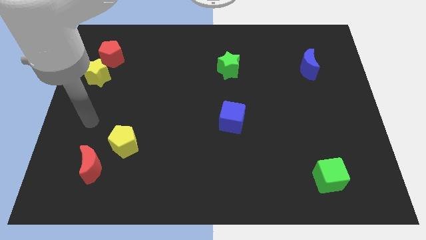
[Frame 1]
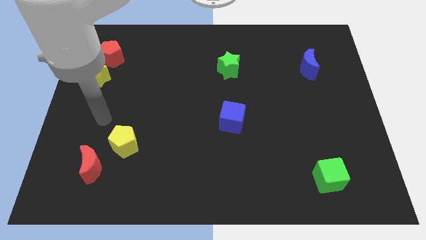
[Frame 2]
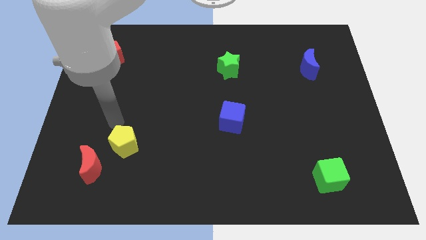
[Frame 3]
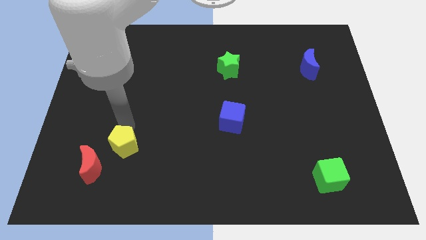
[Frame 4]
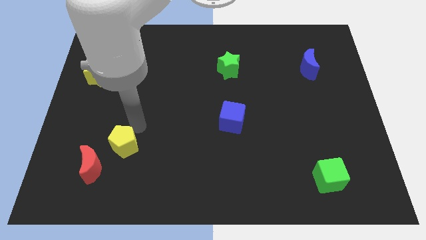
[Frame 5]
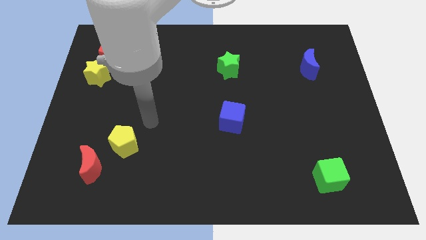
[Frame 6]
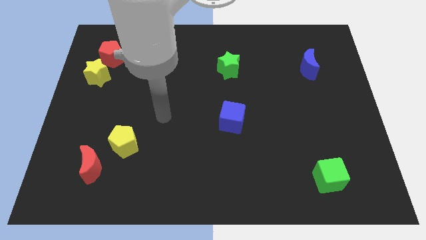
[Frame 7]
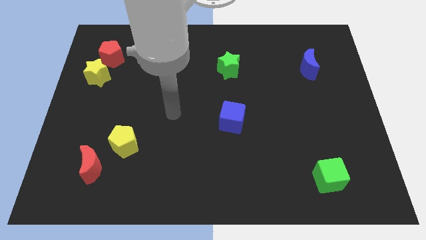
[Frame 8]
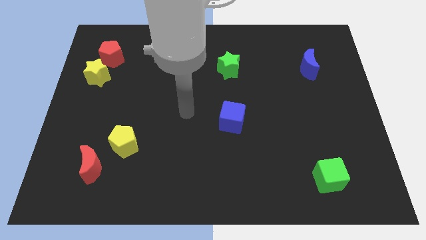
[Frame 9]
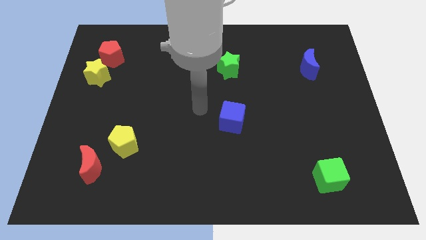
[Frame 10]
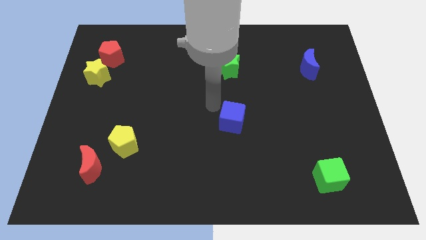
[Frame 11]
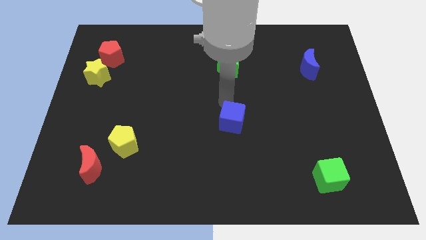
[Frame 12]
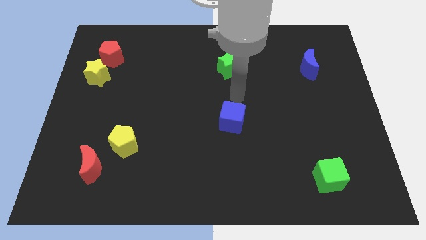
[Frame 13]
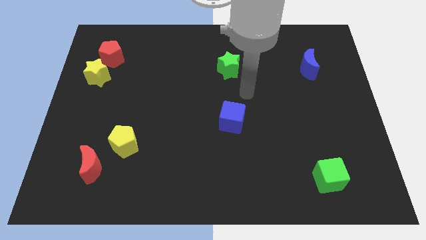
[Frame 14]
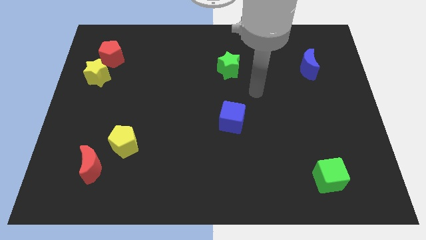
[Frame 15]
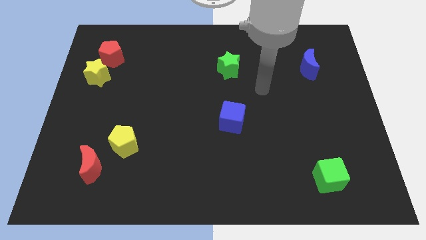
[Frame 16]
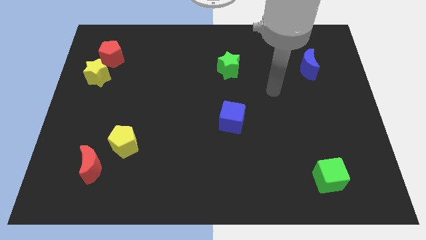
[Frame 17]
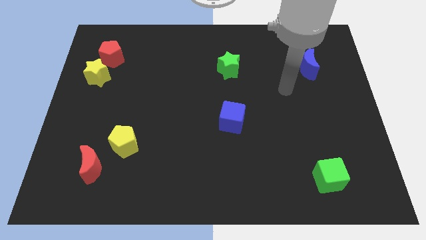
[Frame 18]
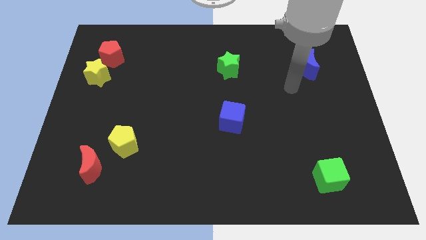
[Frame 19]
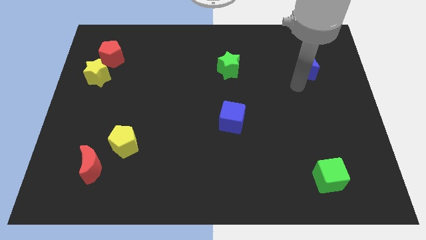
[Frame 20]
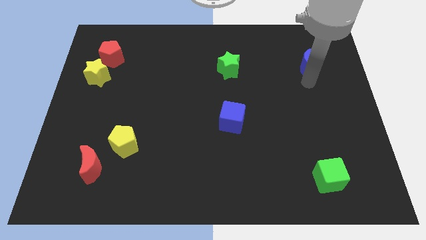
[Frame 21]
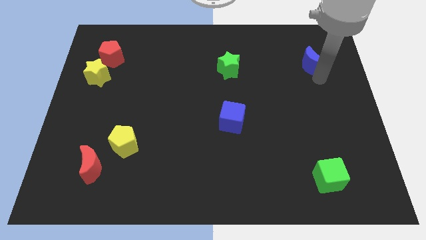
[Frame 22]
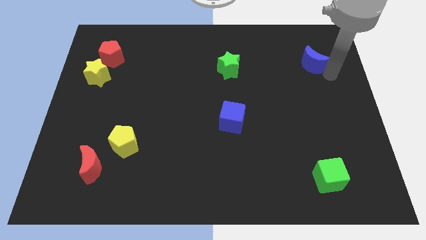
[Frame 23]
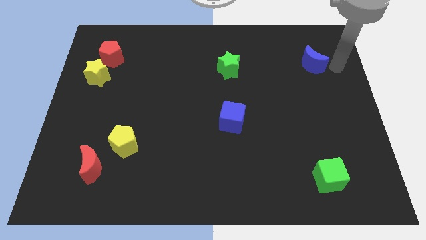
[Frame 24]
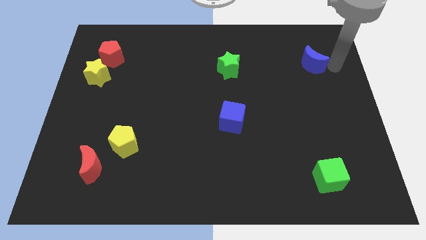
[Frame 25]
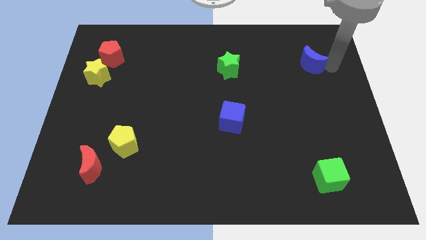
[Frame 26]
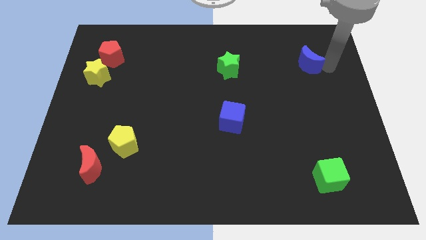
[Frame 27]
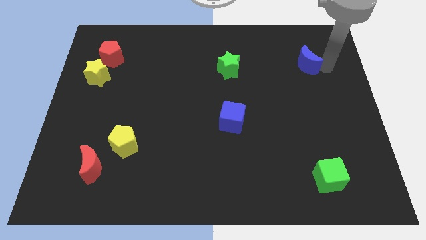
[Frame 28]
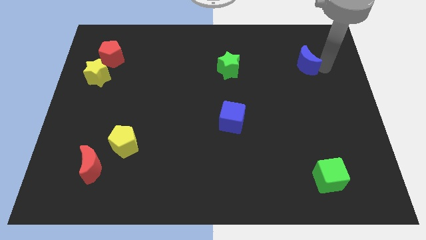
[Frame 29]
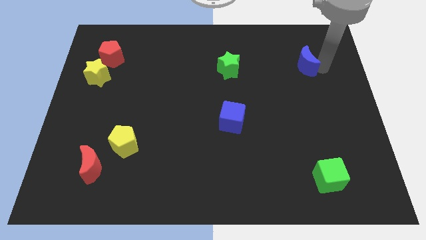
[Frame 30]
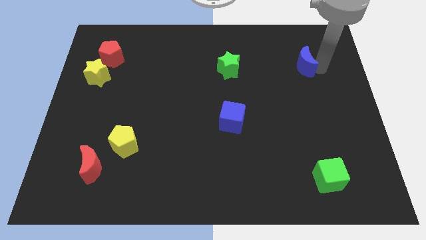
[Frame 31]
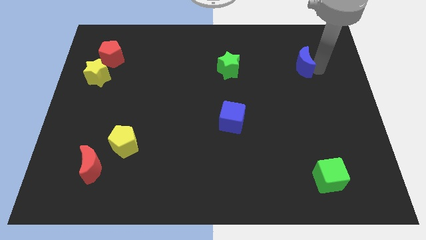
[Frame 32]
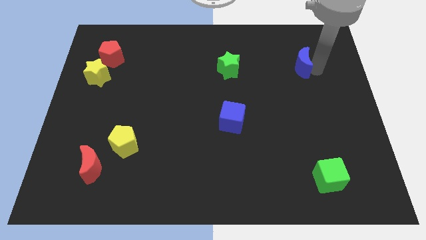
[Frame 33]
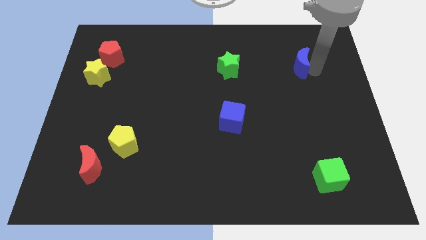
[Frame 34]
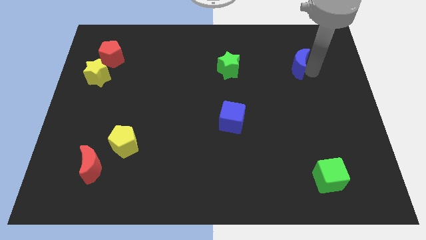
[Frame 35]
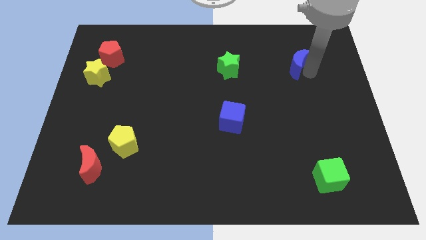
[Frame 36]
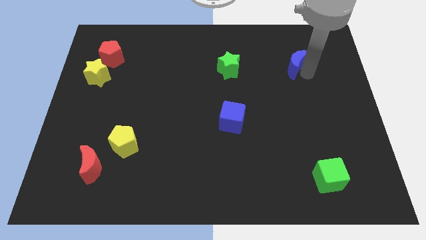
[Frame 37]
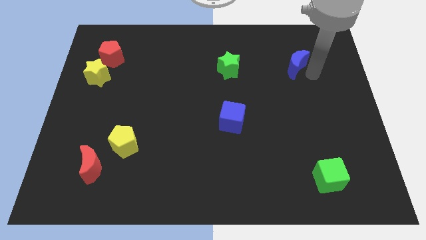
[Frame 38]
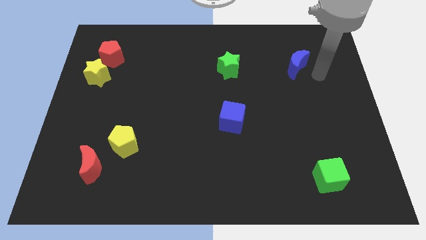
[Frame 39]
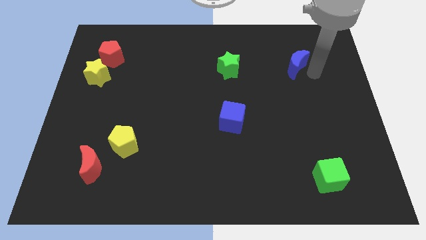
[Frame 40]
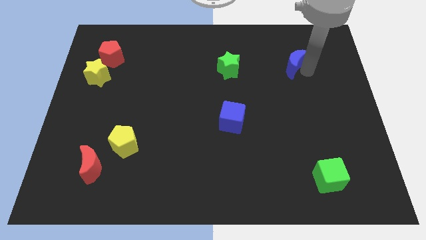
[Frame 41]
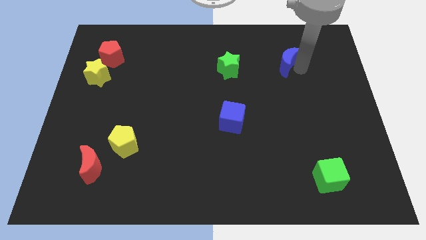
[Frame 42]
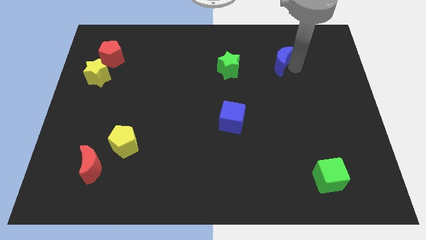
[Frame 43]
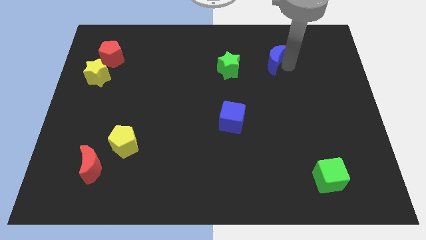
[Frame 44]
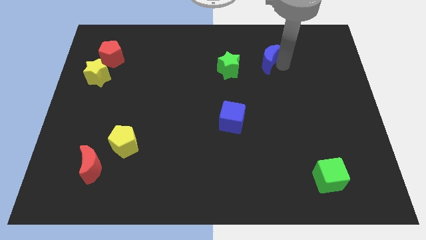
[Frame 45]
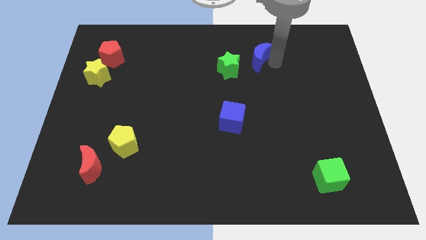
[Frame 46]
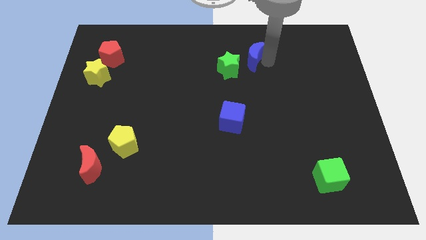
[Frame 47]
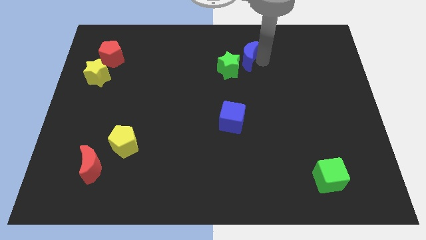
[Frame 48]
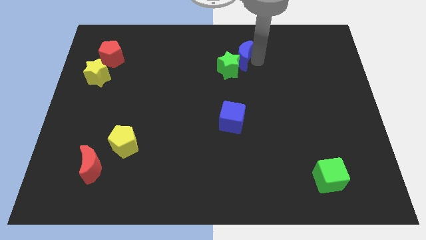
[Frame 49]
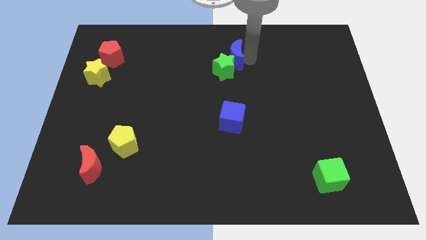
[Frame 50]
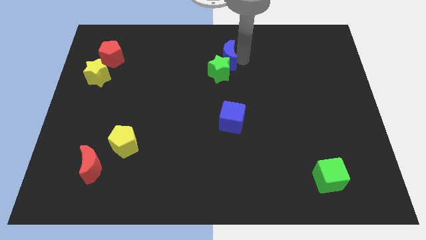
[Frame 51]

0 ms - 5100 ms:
push the blue moon to the left

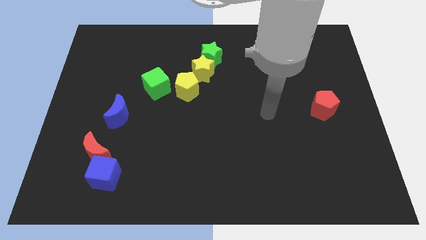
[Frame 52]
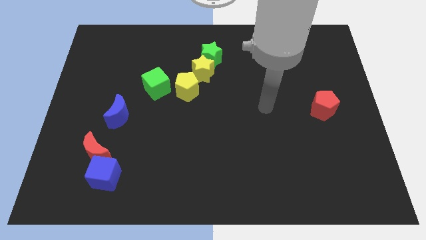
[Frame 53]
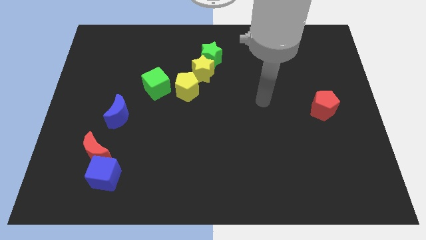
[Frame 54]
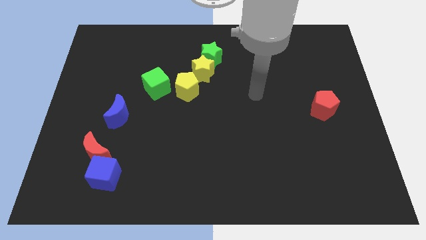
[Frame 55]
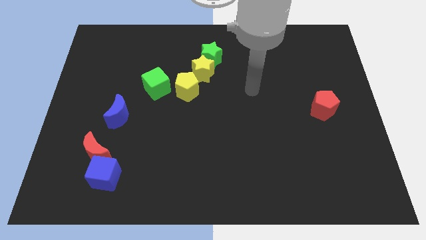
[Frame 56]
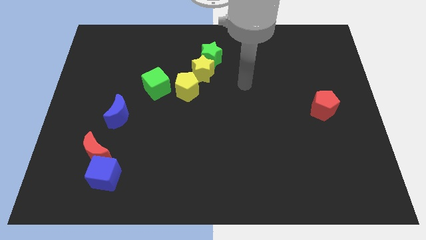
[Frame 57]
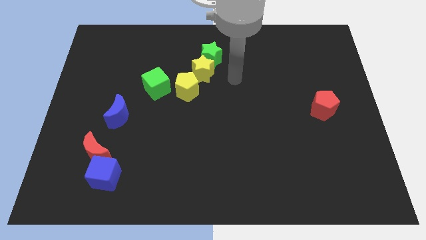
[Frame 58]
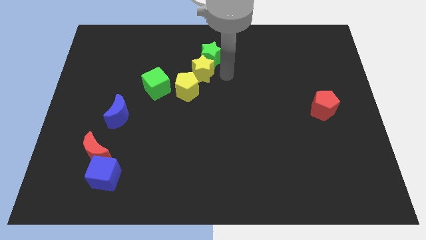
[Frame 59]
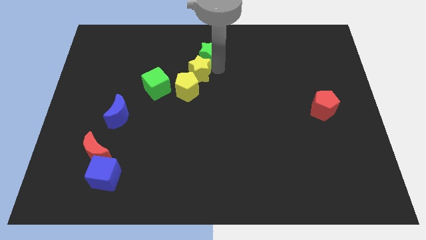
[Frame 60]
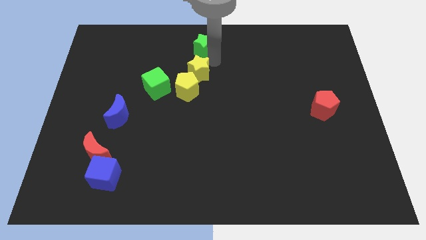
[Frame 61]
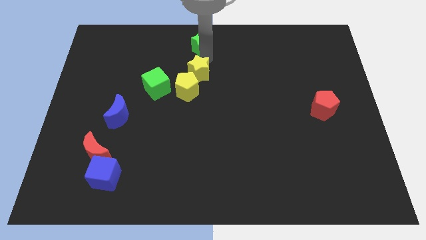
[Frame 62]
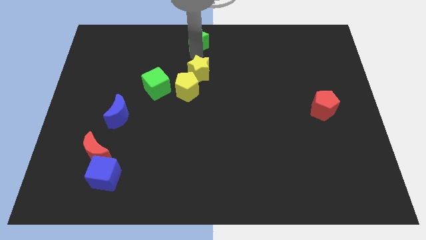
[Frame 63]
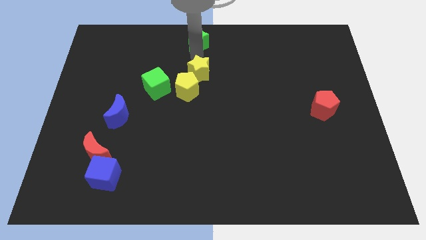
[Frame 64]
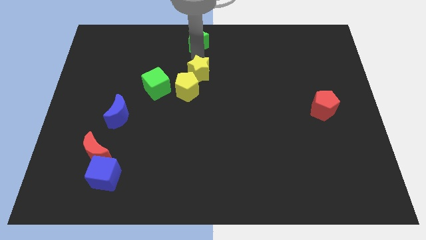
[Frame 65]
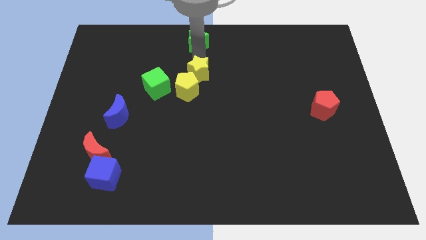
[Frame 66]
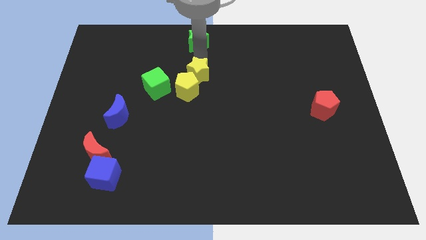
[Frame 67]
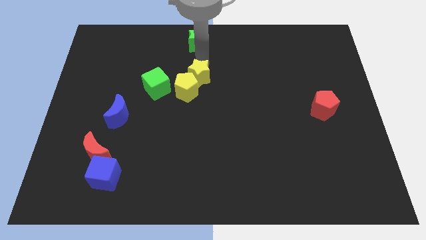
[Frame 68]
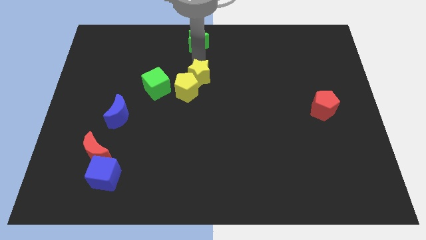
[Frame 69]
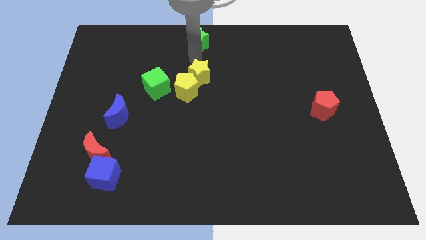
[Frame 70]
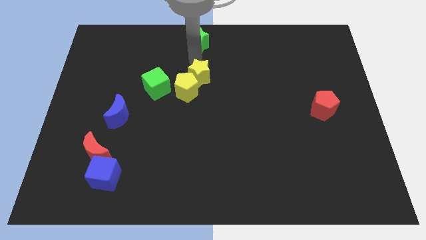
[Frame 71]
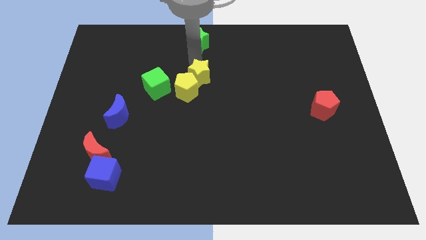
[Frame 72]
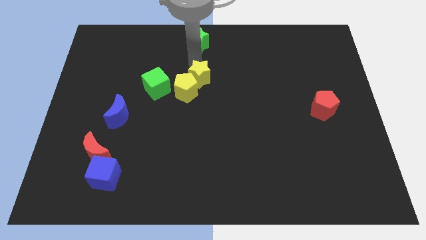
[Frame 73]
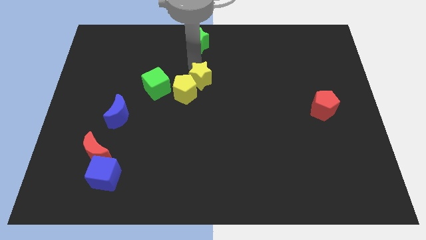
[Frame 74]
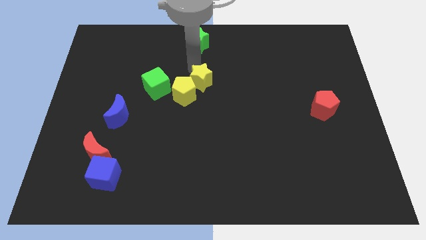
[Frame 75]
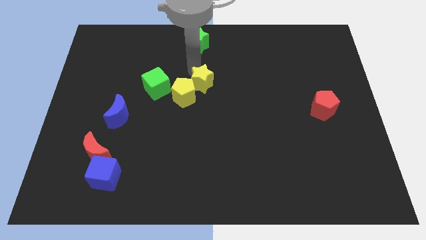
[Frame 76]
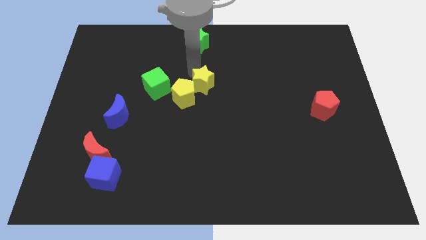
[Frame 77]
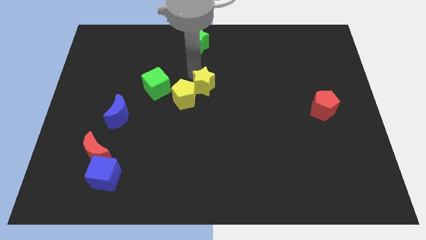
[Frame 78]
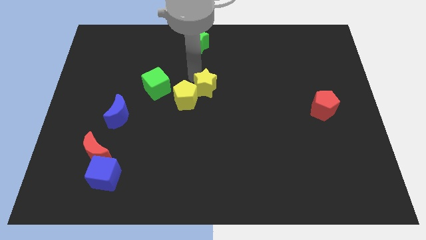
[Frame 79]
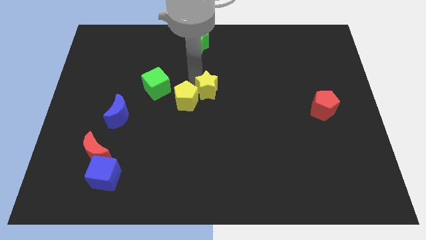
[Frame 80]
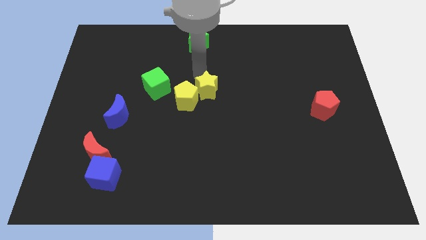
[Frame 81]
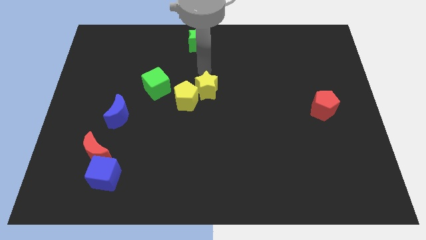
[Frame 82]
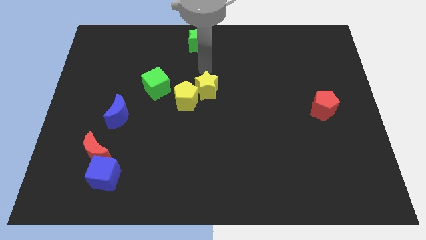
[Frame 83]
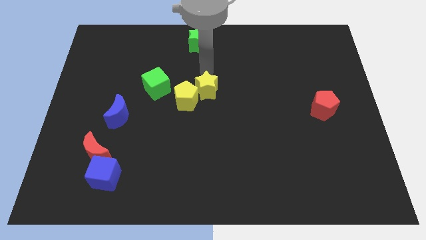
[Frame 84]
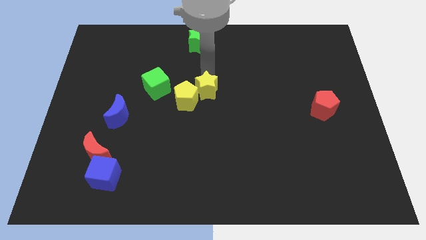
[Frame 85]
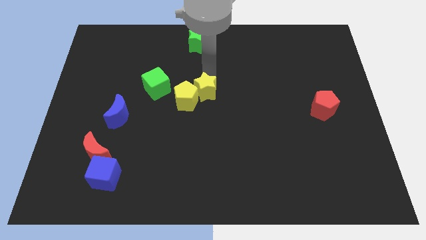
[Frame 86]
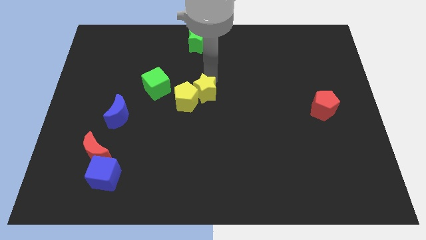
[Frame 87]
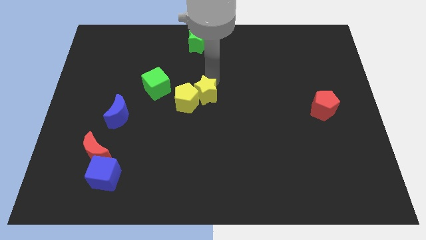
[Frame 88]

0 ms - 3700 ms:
slide the yellow star slightly down
